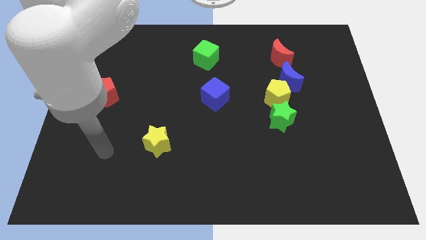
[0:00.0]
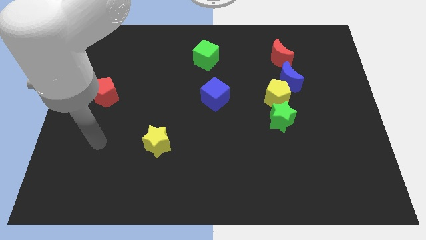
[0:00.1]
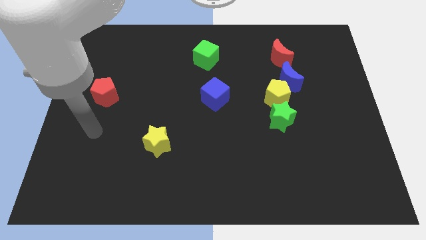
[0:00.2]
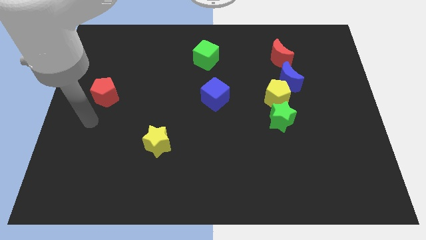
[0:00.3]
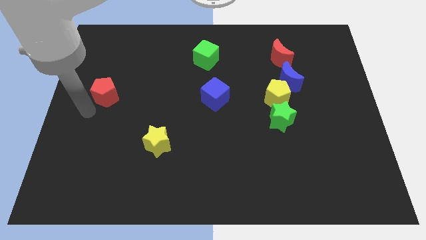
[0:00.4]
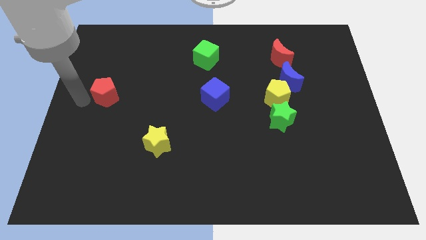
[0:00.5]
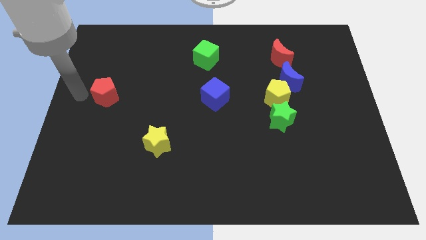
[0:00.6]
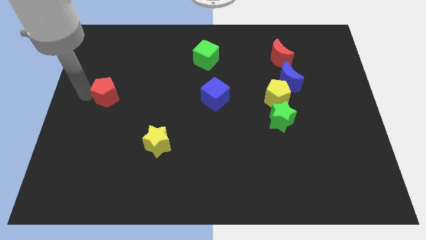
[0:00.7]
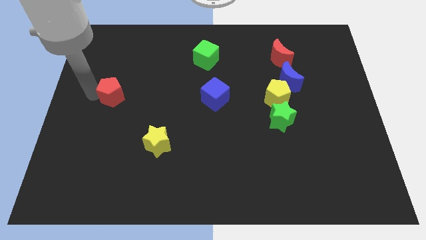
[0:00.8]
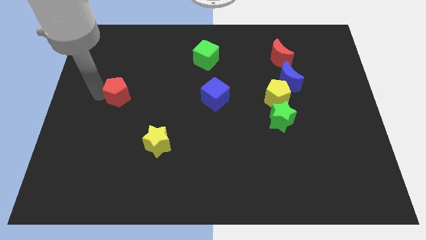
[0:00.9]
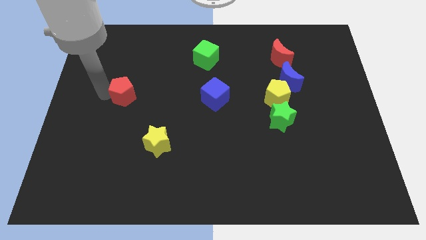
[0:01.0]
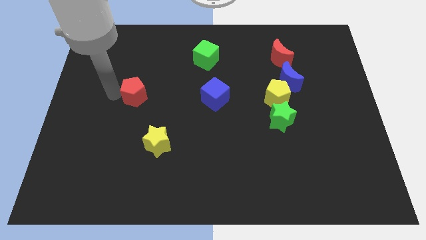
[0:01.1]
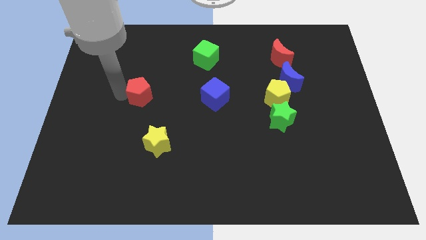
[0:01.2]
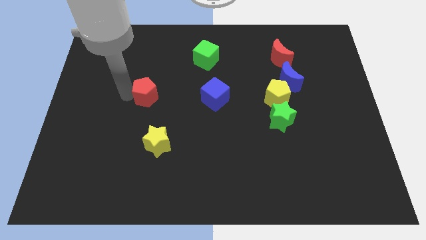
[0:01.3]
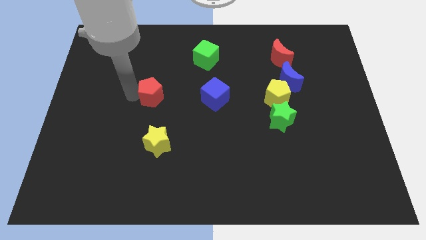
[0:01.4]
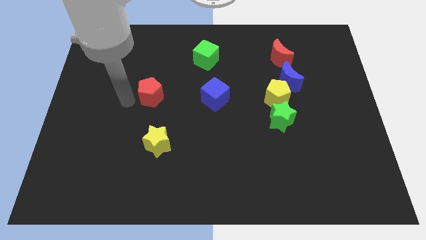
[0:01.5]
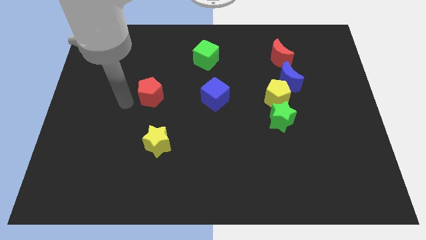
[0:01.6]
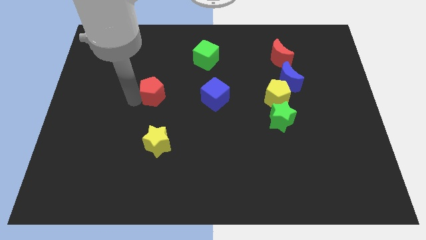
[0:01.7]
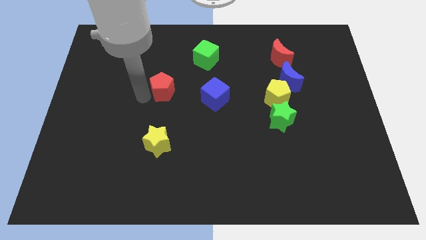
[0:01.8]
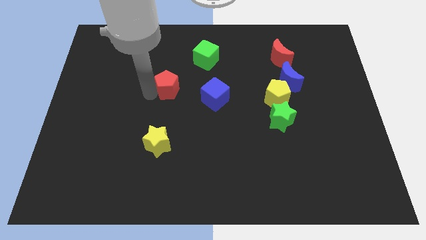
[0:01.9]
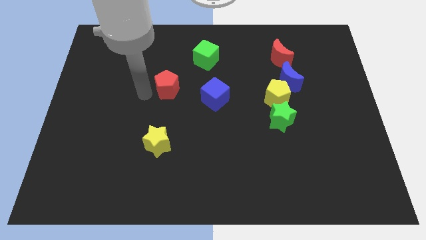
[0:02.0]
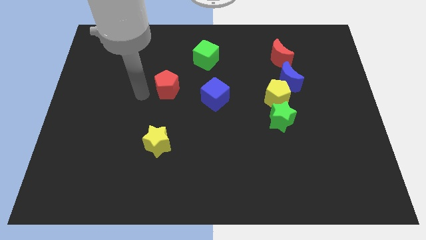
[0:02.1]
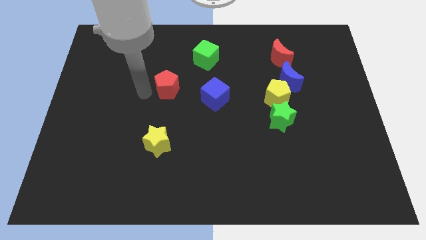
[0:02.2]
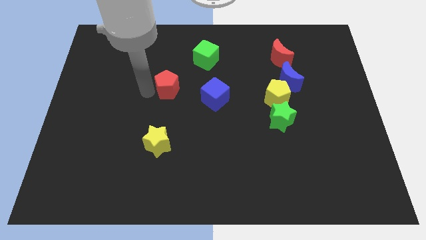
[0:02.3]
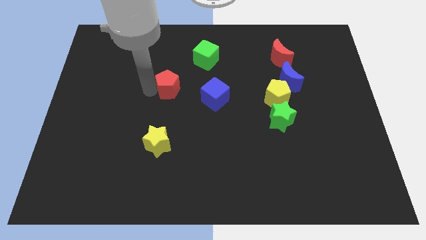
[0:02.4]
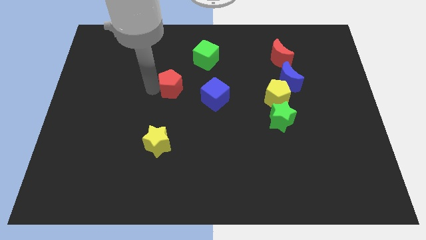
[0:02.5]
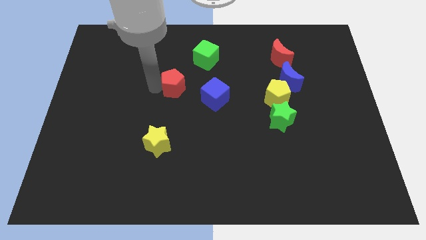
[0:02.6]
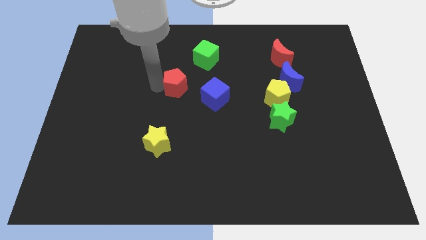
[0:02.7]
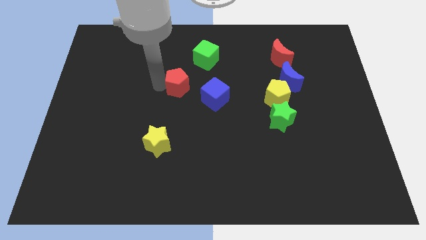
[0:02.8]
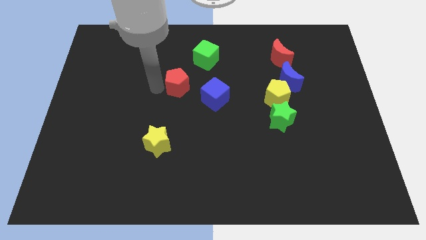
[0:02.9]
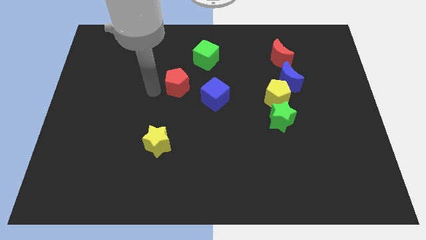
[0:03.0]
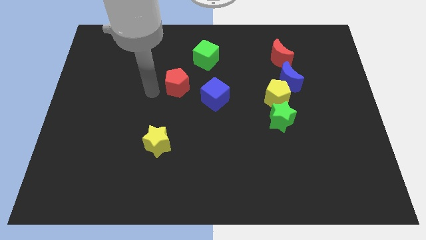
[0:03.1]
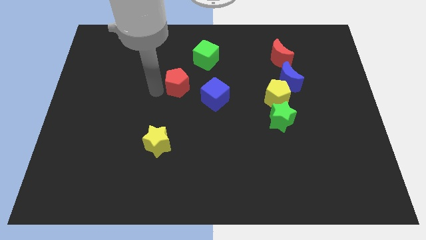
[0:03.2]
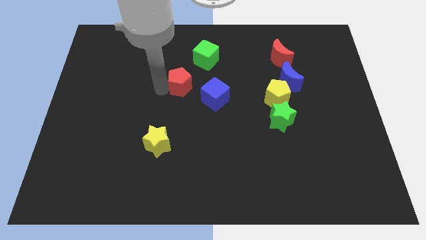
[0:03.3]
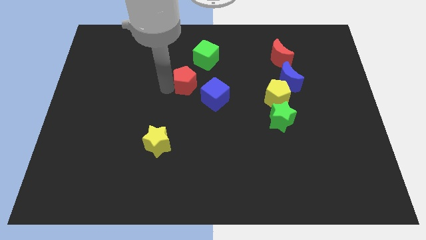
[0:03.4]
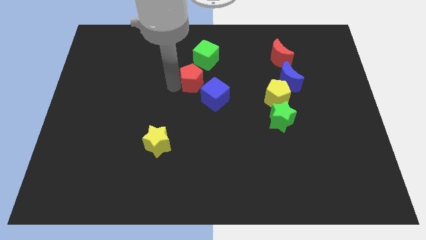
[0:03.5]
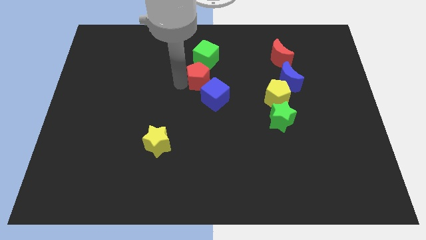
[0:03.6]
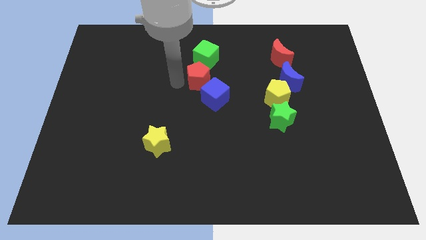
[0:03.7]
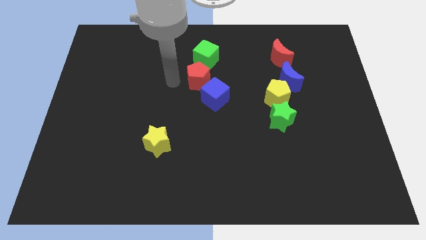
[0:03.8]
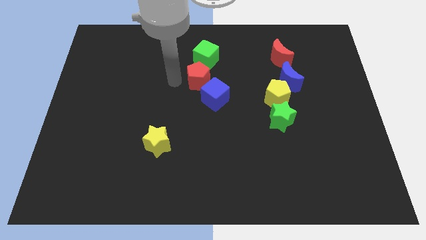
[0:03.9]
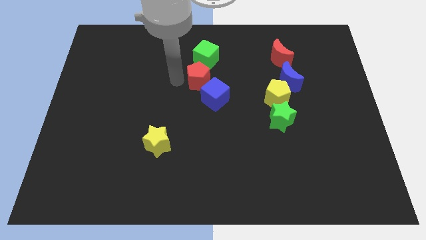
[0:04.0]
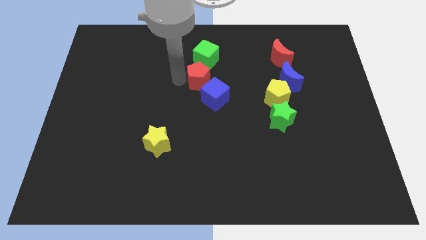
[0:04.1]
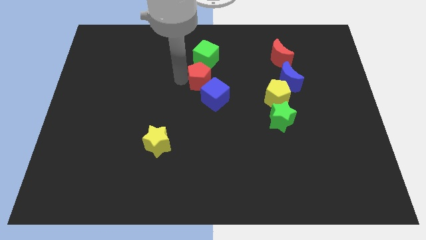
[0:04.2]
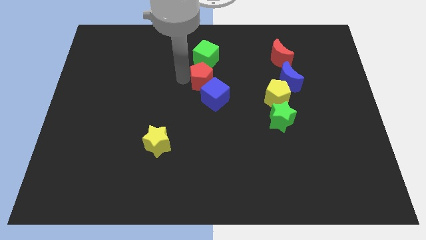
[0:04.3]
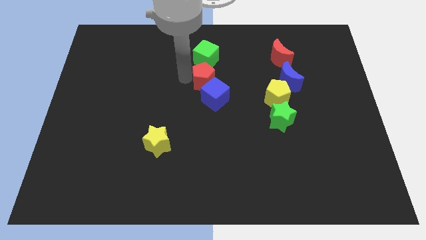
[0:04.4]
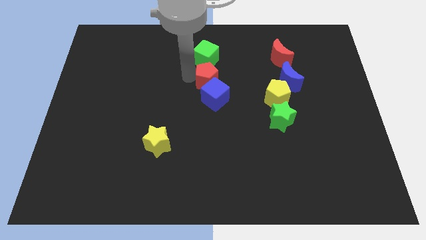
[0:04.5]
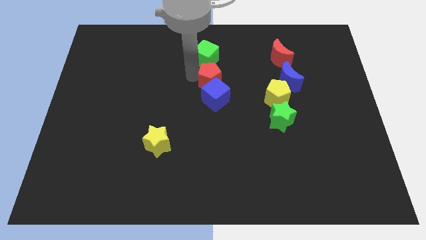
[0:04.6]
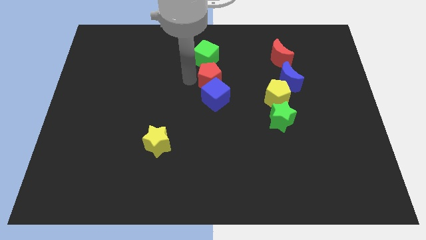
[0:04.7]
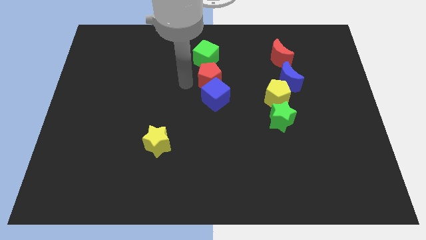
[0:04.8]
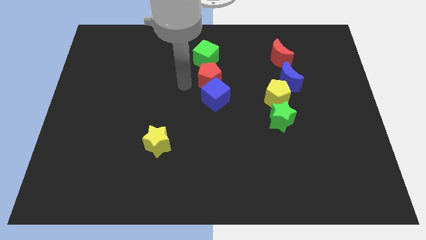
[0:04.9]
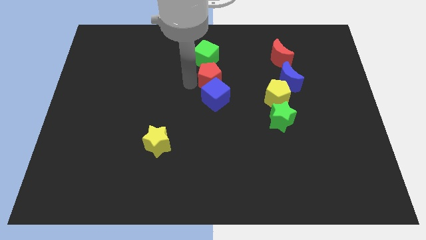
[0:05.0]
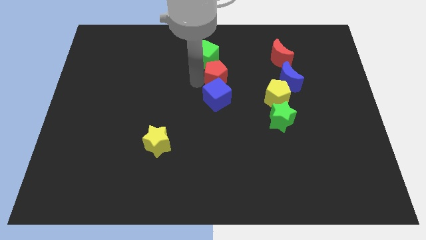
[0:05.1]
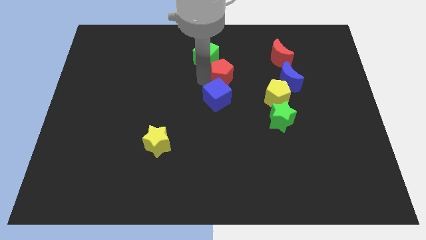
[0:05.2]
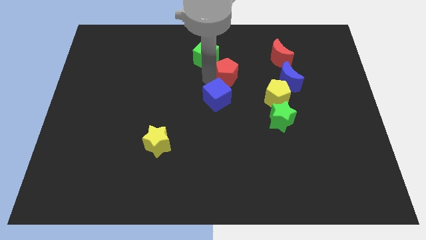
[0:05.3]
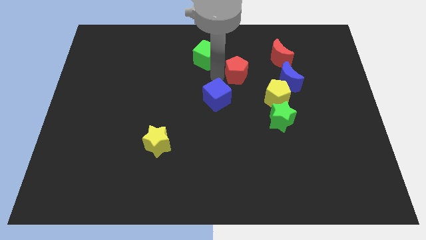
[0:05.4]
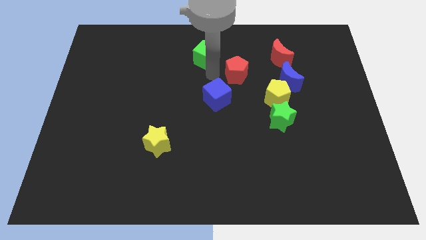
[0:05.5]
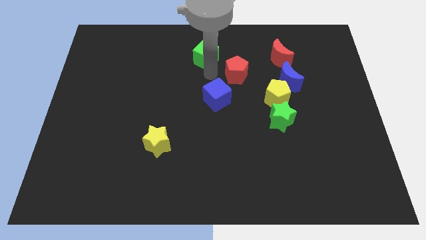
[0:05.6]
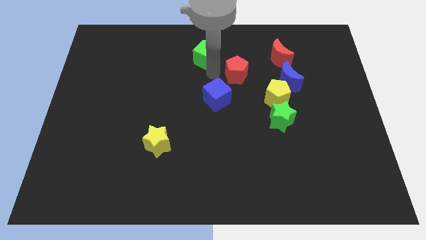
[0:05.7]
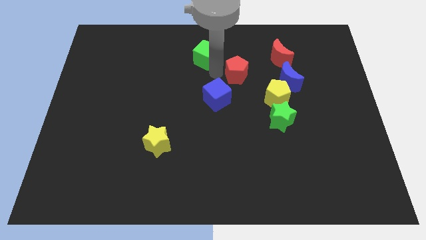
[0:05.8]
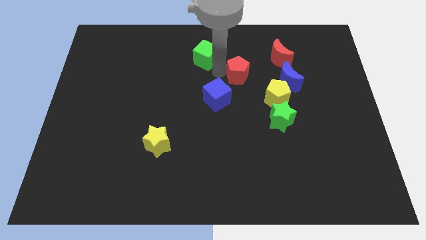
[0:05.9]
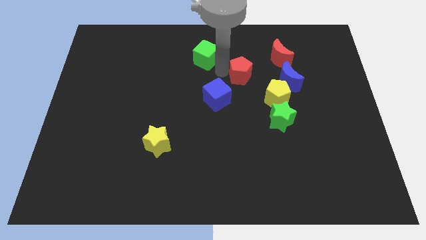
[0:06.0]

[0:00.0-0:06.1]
move the red pentagon diagonally down and to the left of the red moon

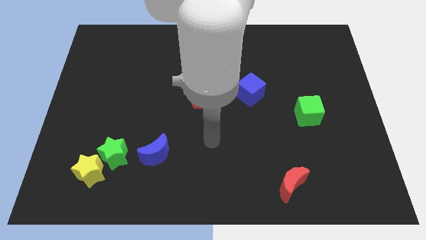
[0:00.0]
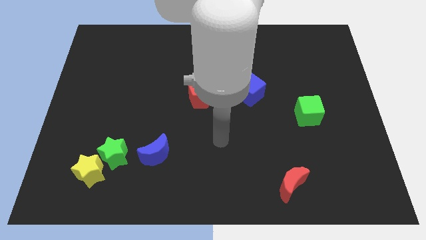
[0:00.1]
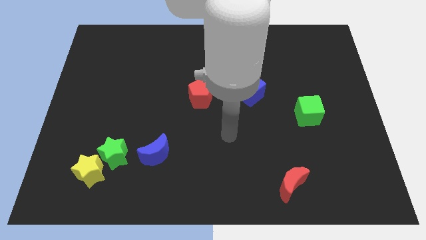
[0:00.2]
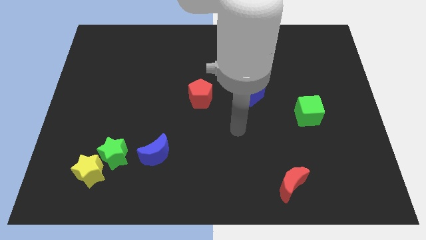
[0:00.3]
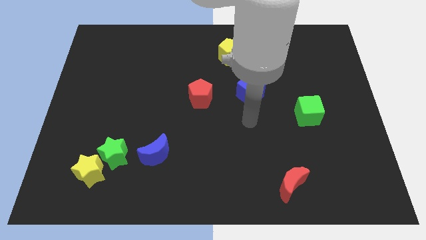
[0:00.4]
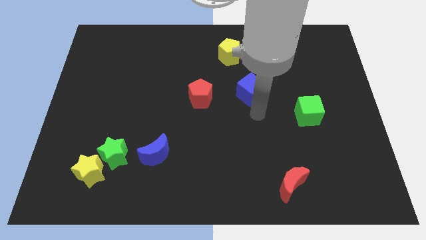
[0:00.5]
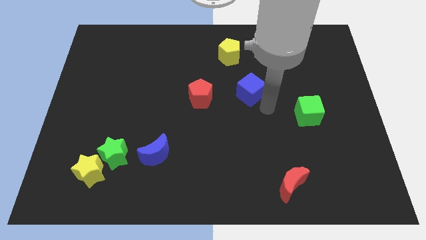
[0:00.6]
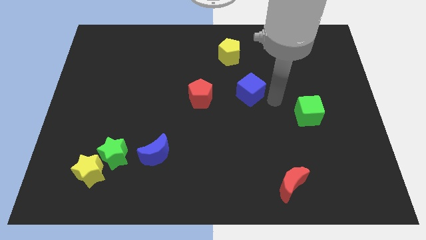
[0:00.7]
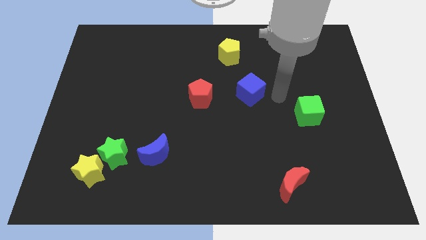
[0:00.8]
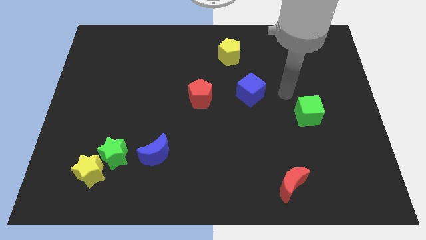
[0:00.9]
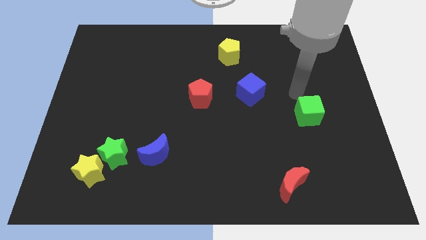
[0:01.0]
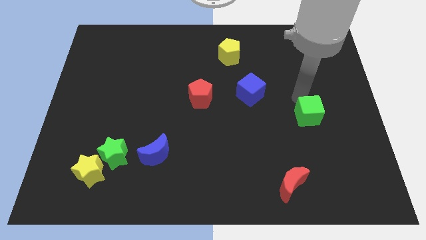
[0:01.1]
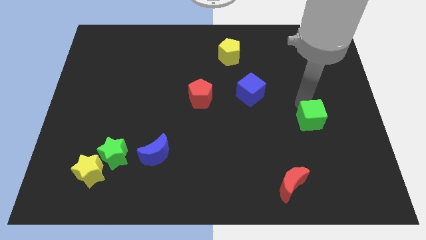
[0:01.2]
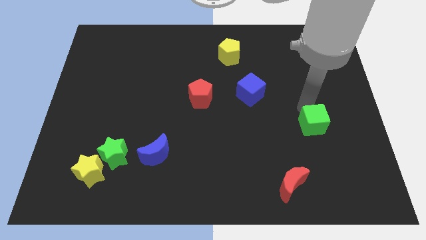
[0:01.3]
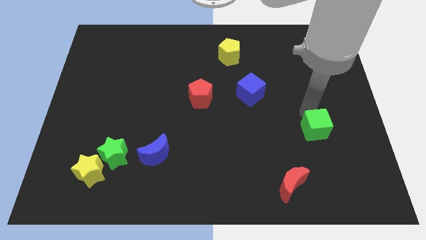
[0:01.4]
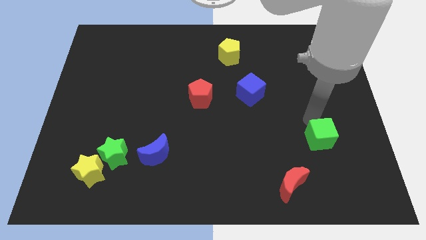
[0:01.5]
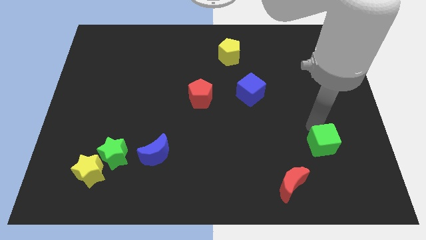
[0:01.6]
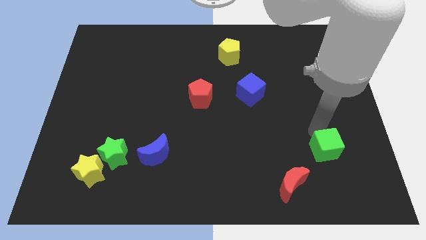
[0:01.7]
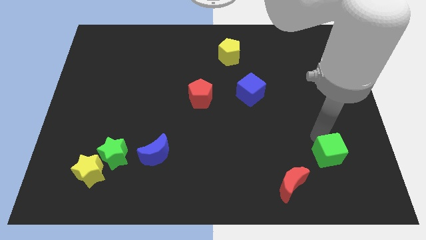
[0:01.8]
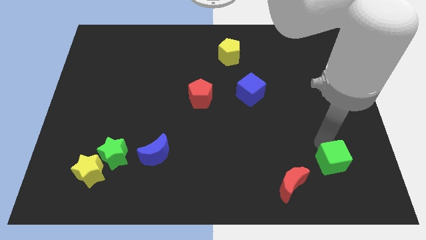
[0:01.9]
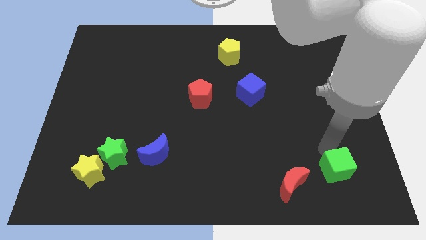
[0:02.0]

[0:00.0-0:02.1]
push the green cube right of the red moon
